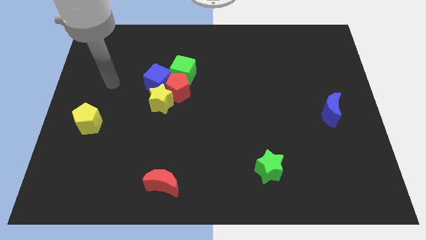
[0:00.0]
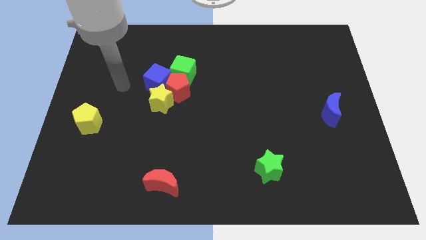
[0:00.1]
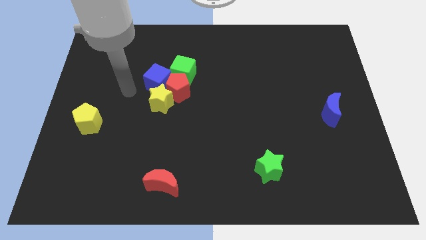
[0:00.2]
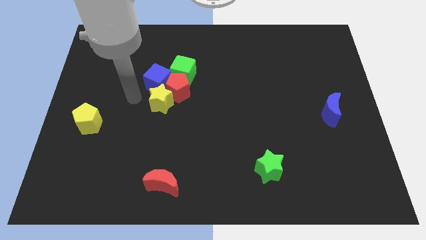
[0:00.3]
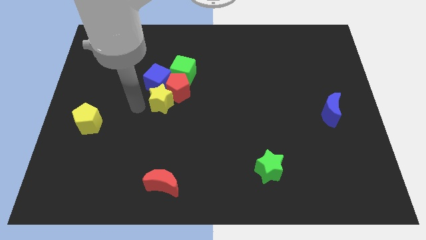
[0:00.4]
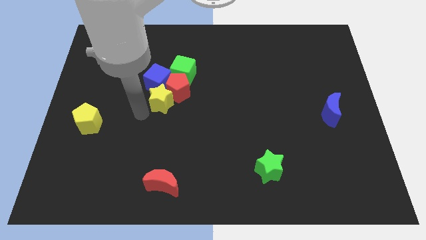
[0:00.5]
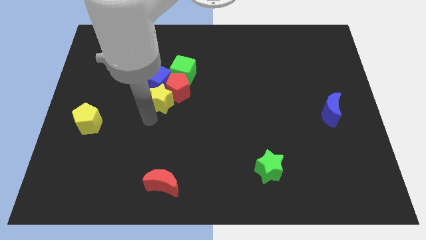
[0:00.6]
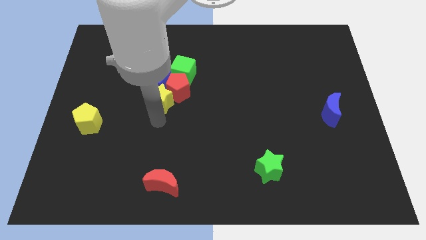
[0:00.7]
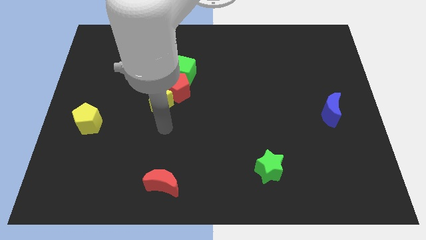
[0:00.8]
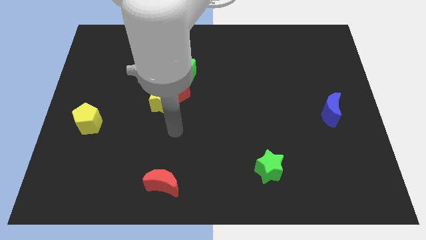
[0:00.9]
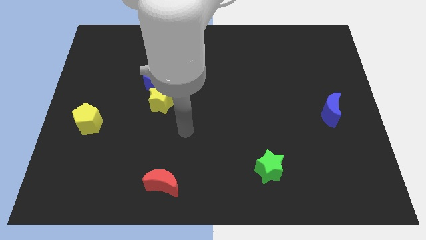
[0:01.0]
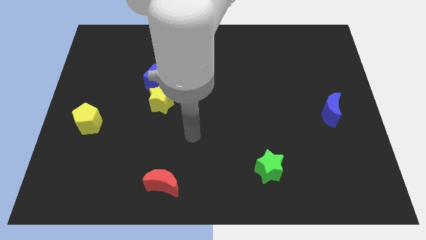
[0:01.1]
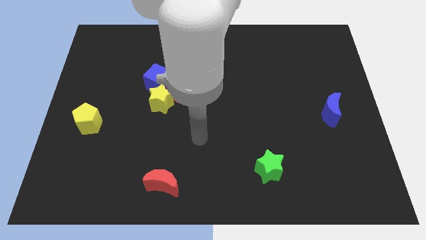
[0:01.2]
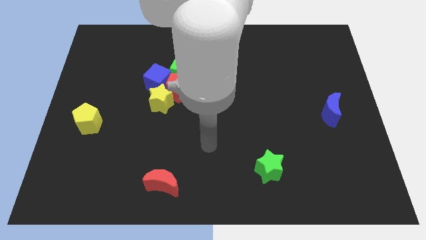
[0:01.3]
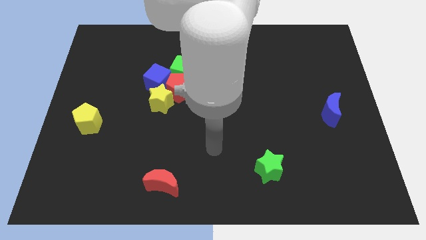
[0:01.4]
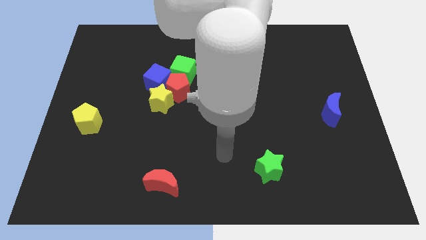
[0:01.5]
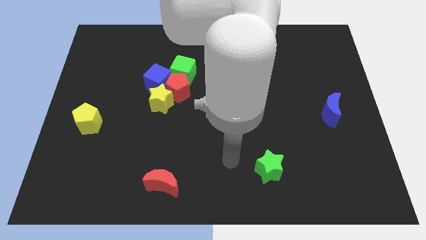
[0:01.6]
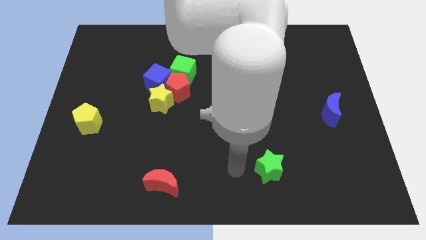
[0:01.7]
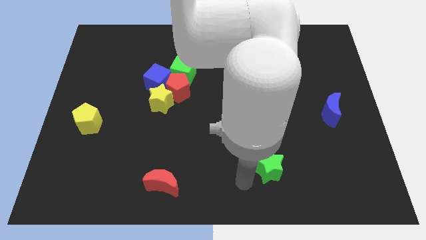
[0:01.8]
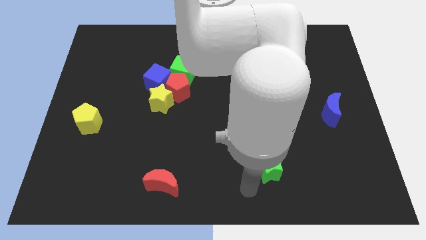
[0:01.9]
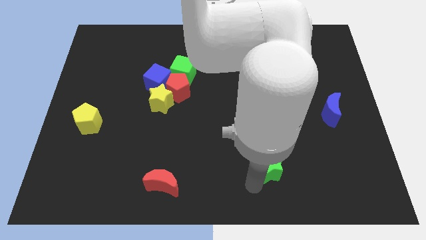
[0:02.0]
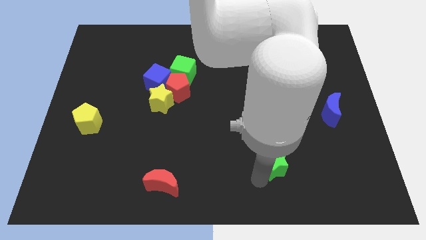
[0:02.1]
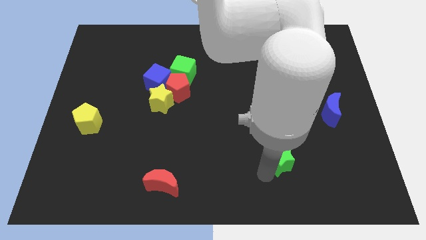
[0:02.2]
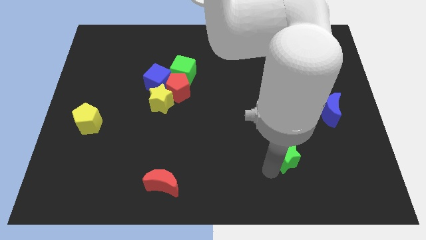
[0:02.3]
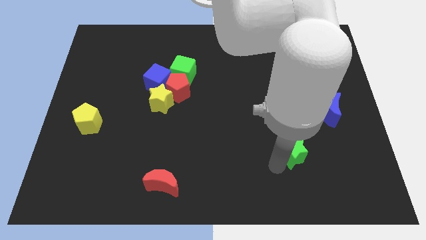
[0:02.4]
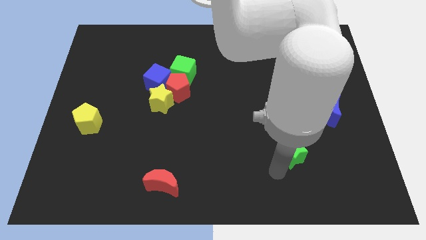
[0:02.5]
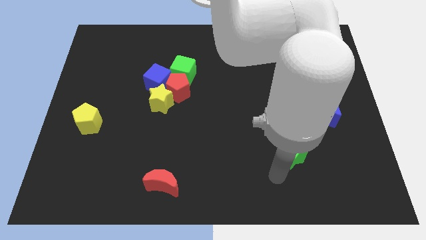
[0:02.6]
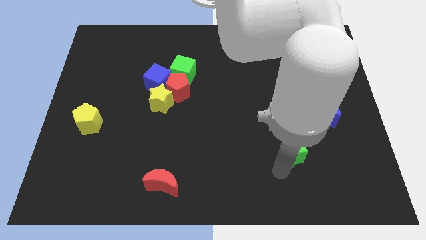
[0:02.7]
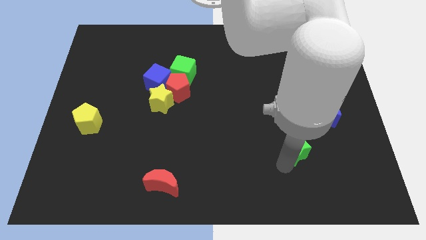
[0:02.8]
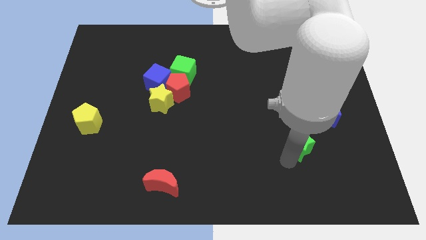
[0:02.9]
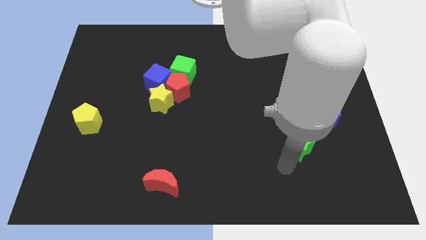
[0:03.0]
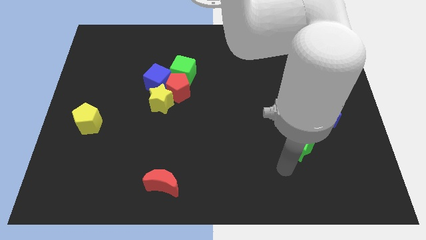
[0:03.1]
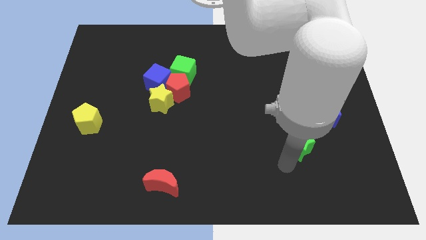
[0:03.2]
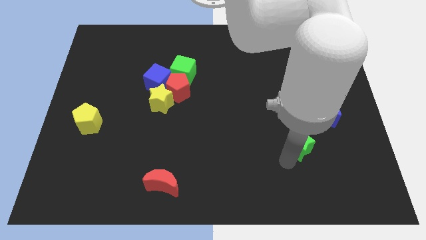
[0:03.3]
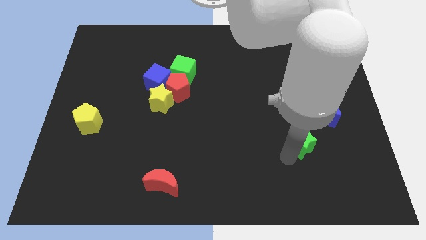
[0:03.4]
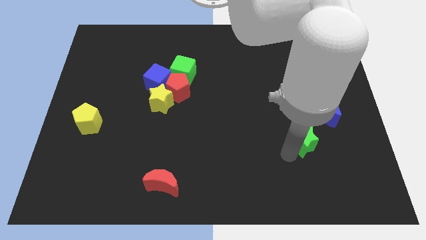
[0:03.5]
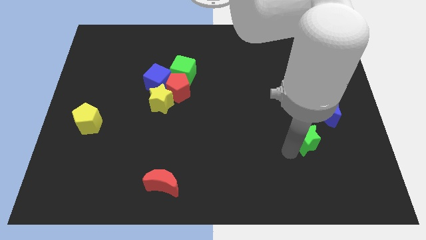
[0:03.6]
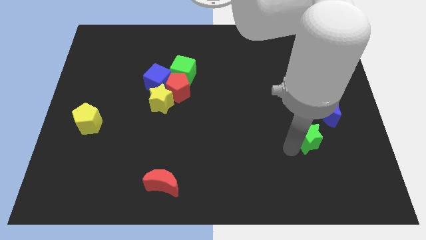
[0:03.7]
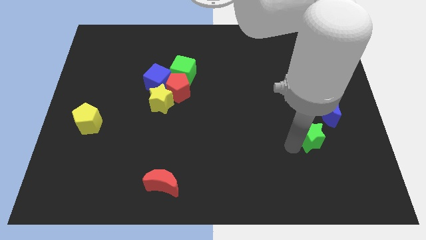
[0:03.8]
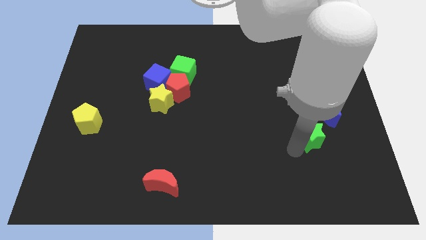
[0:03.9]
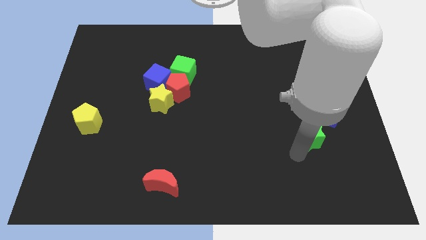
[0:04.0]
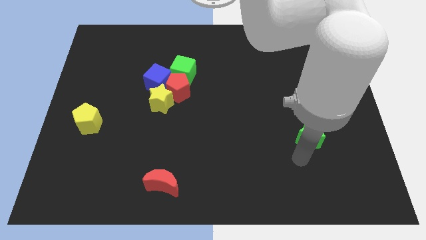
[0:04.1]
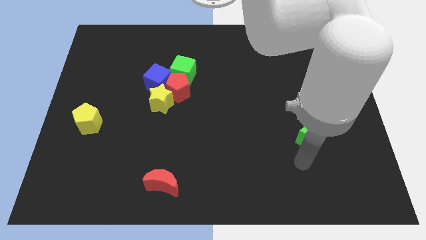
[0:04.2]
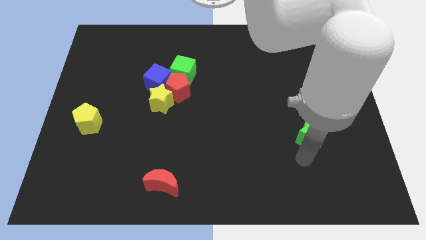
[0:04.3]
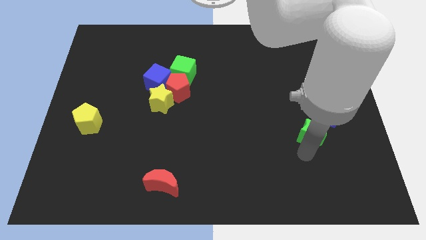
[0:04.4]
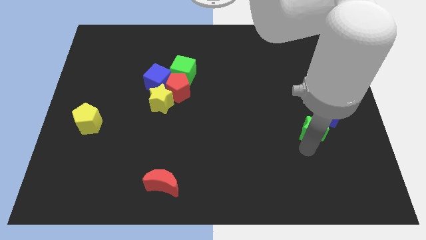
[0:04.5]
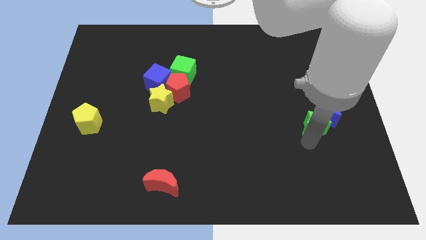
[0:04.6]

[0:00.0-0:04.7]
put the green star towards the blue moon

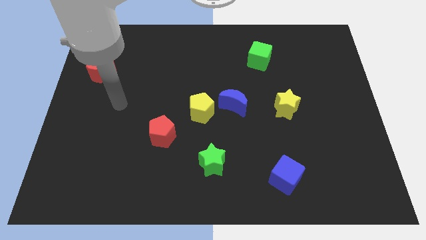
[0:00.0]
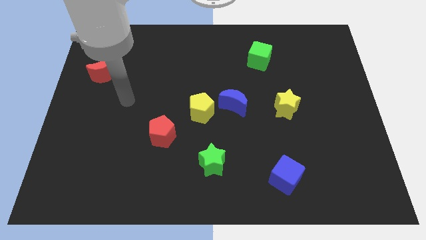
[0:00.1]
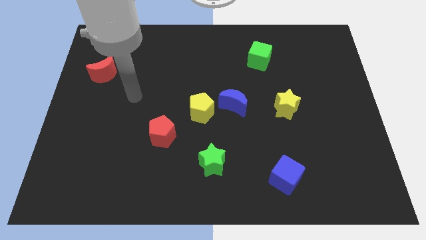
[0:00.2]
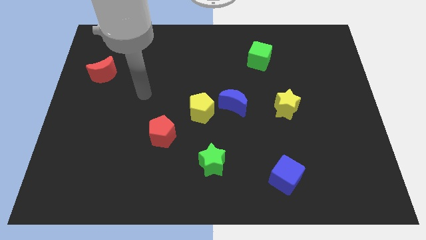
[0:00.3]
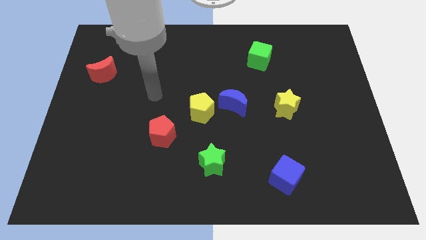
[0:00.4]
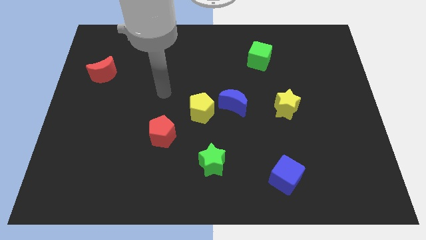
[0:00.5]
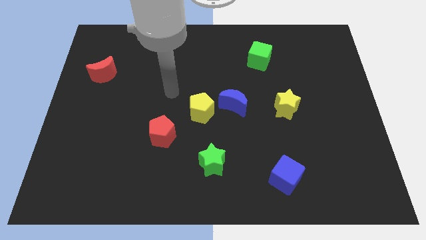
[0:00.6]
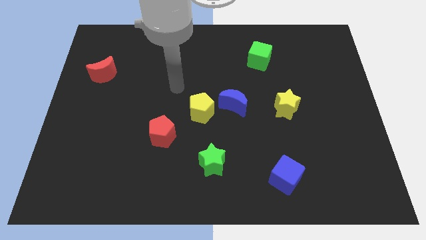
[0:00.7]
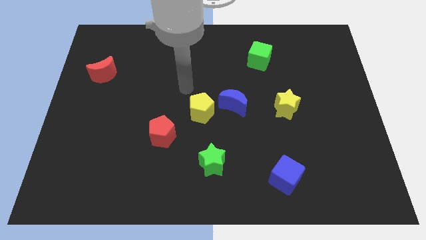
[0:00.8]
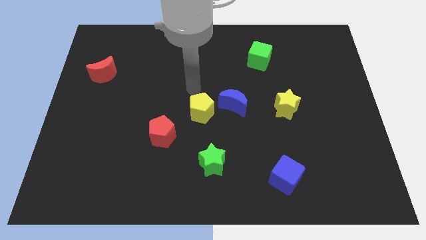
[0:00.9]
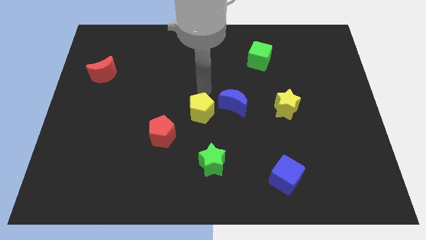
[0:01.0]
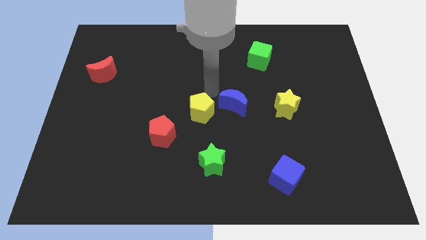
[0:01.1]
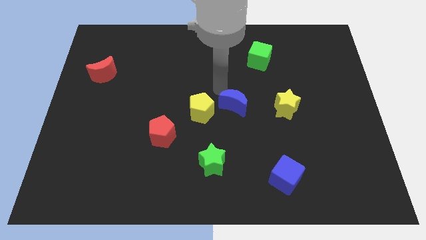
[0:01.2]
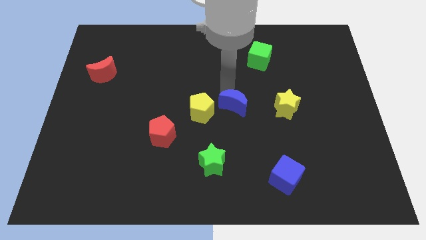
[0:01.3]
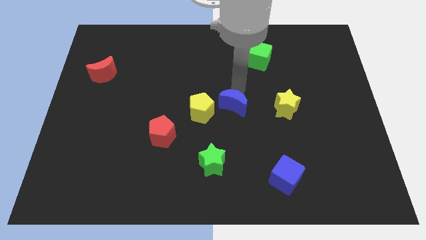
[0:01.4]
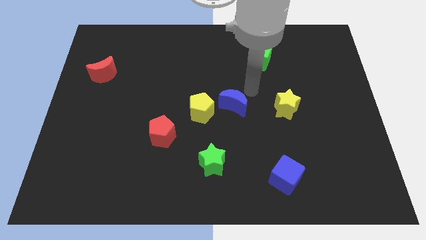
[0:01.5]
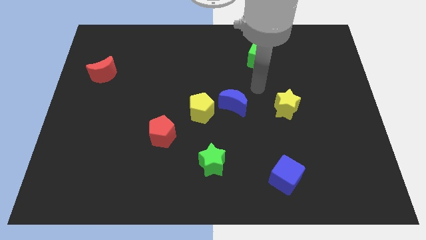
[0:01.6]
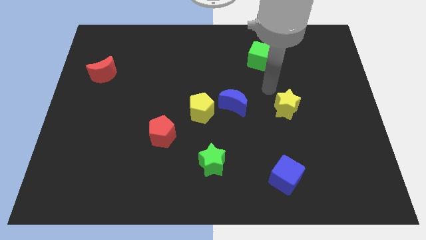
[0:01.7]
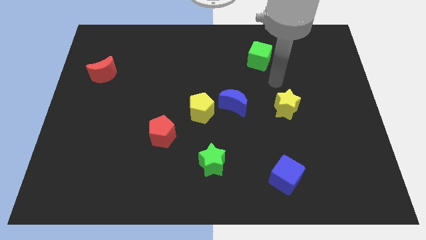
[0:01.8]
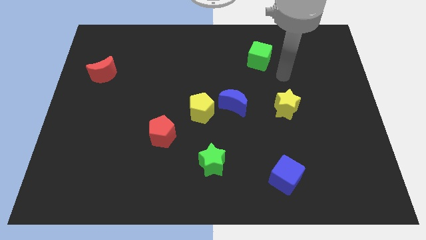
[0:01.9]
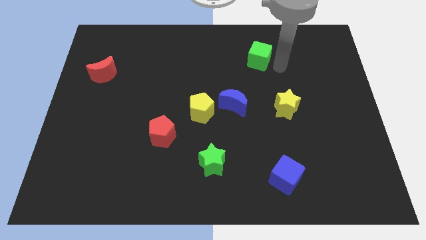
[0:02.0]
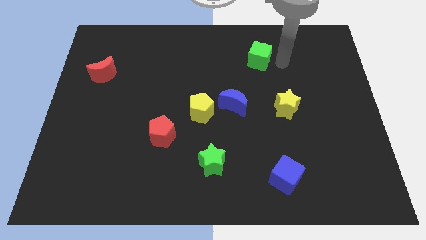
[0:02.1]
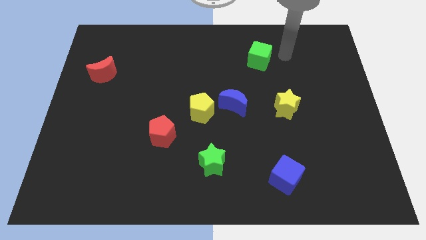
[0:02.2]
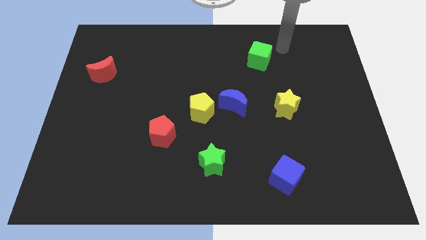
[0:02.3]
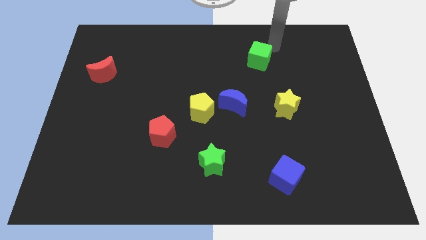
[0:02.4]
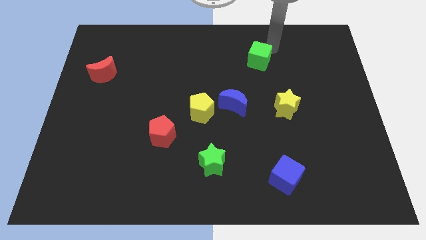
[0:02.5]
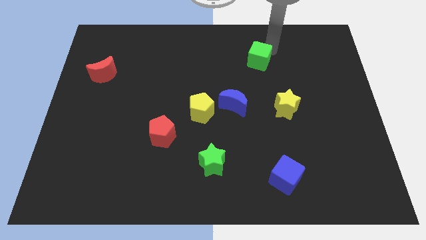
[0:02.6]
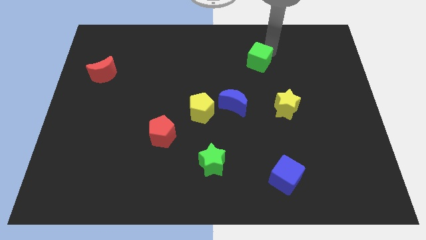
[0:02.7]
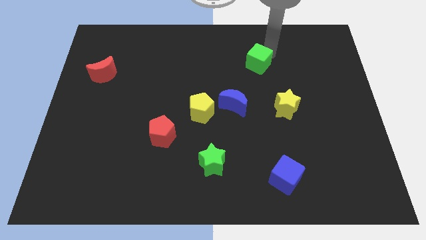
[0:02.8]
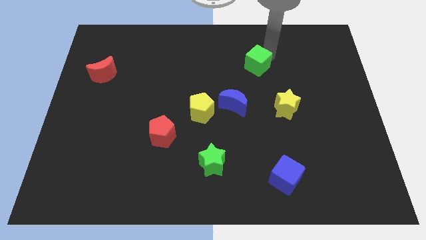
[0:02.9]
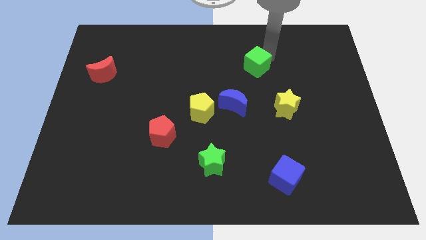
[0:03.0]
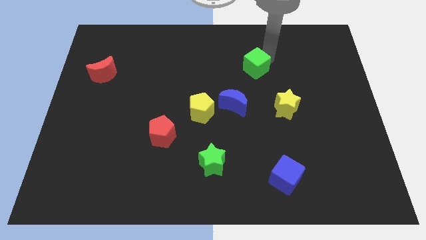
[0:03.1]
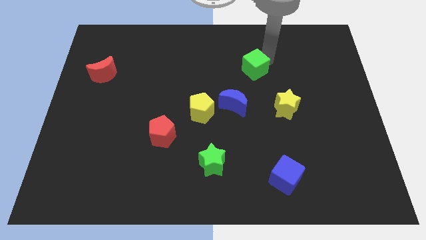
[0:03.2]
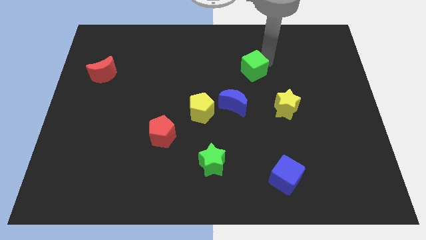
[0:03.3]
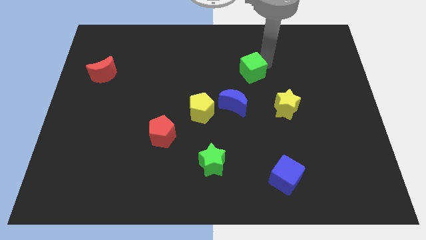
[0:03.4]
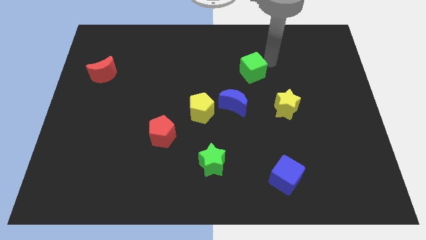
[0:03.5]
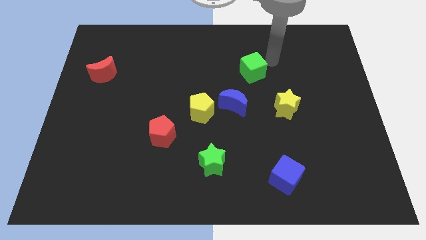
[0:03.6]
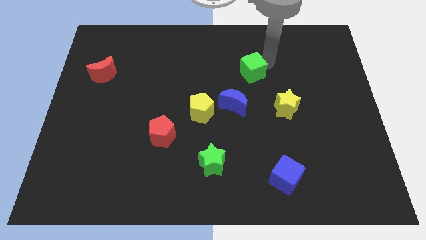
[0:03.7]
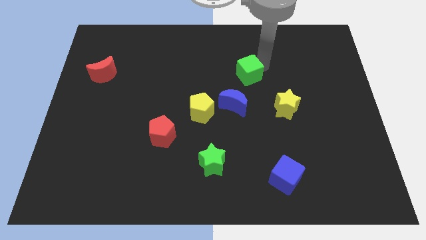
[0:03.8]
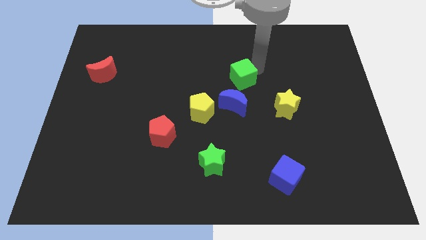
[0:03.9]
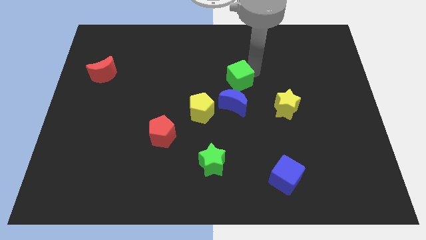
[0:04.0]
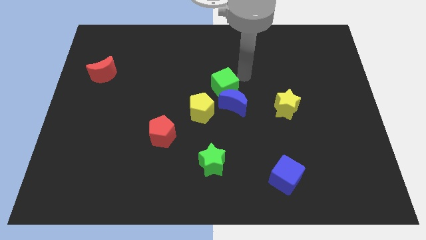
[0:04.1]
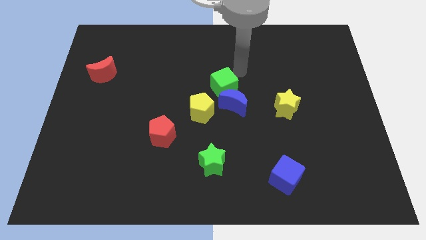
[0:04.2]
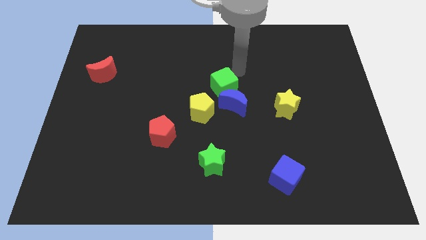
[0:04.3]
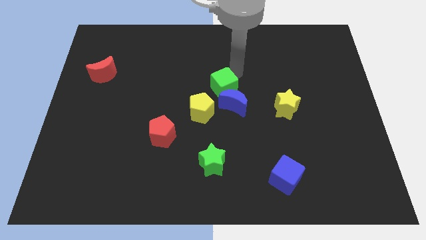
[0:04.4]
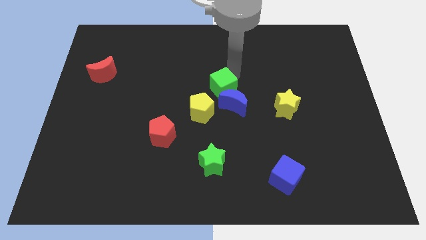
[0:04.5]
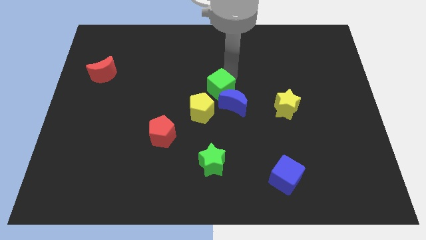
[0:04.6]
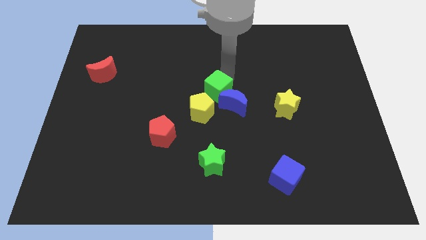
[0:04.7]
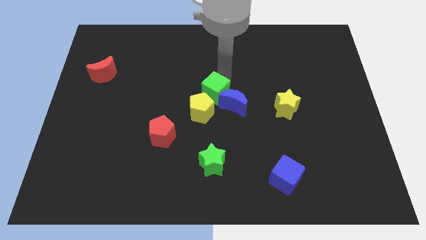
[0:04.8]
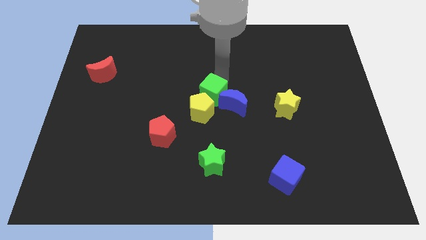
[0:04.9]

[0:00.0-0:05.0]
move the green cube next to the yellow pentagon
